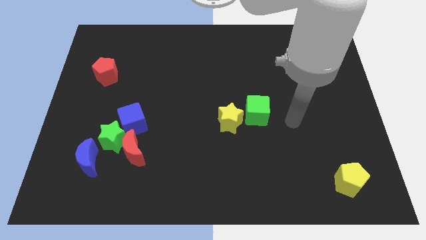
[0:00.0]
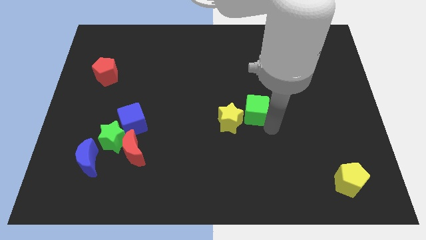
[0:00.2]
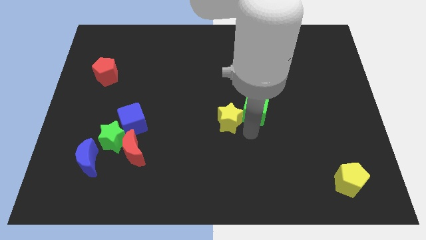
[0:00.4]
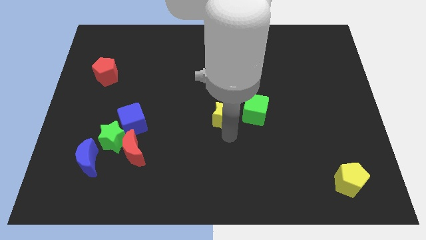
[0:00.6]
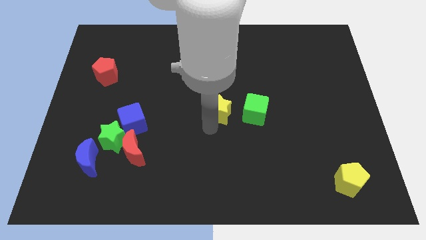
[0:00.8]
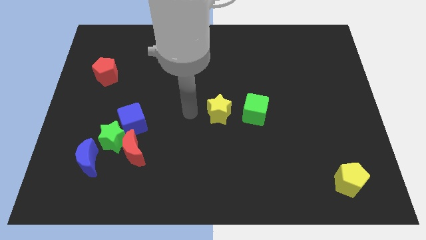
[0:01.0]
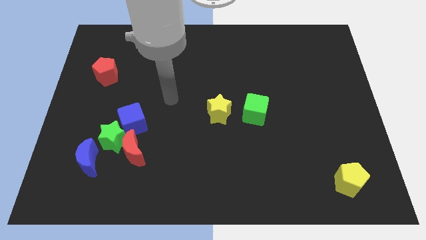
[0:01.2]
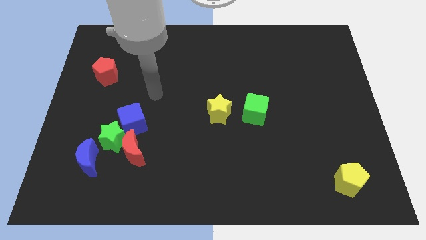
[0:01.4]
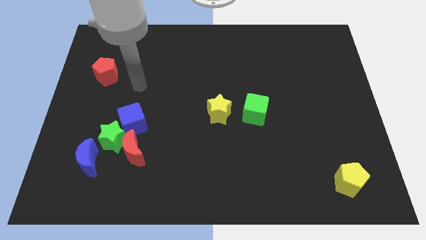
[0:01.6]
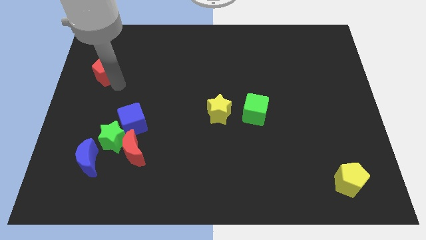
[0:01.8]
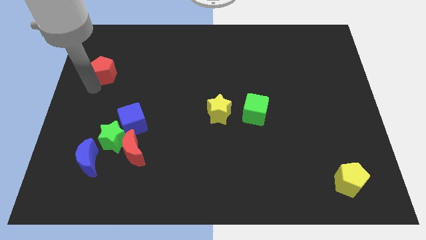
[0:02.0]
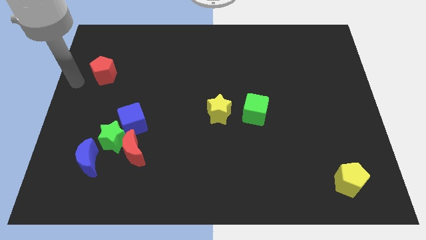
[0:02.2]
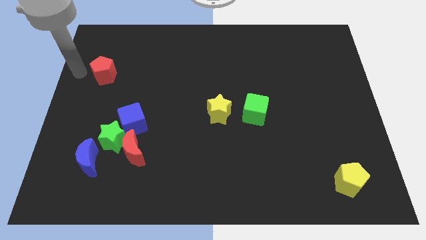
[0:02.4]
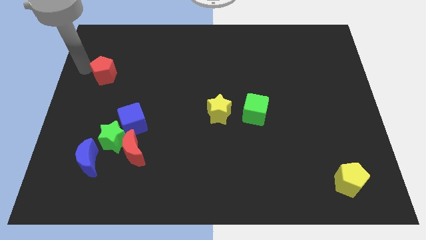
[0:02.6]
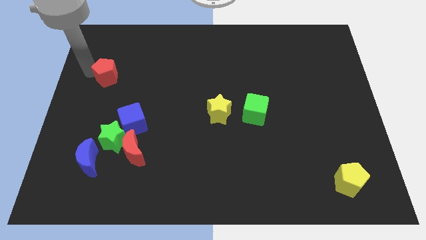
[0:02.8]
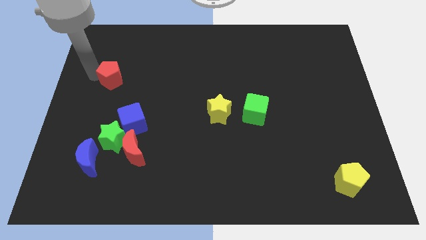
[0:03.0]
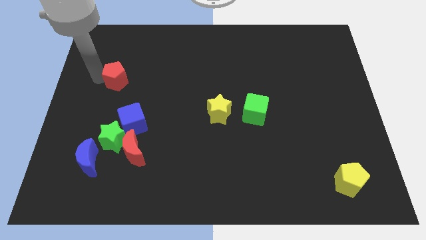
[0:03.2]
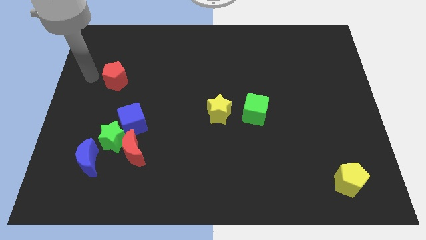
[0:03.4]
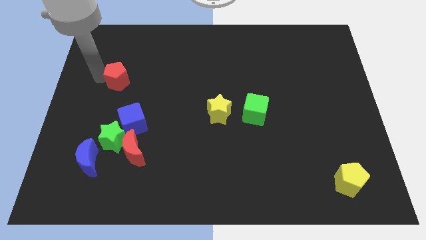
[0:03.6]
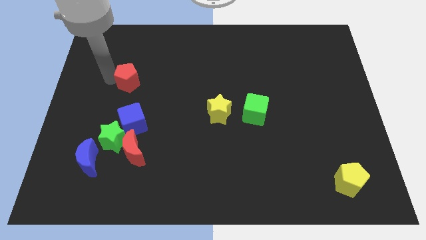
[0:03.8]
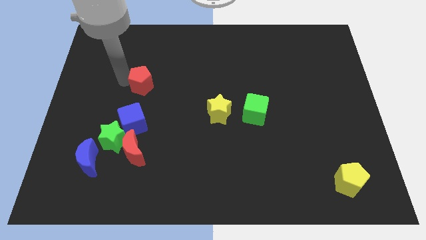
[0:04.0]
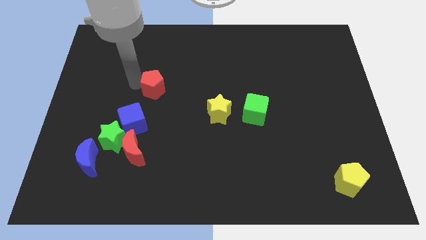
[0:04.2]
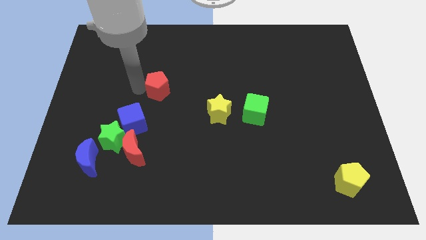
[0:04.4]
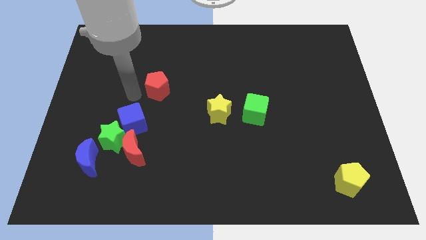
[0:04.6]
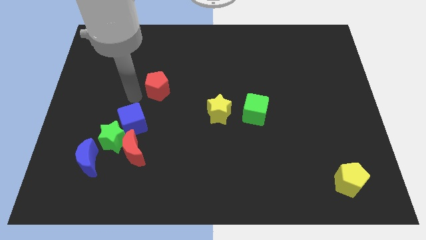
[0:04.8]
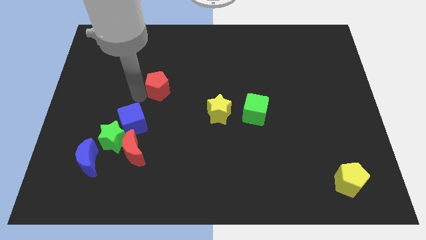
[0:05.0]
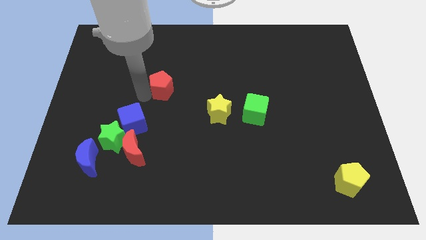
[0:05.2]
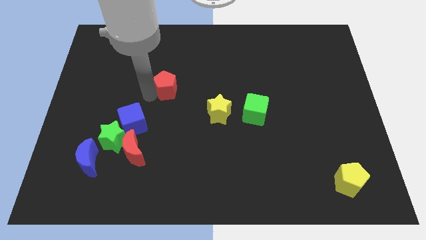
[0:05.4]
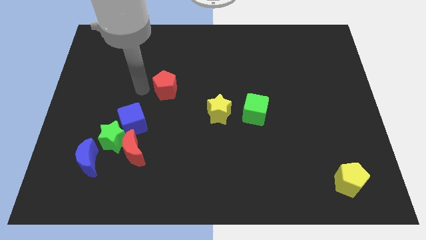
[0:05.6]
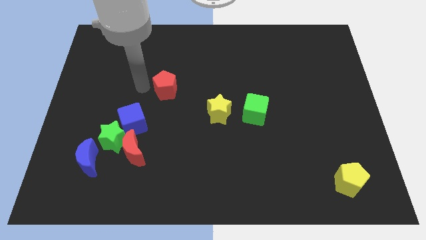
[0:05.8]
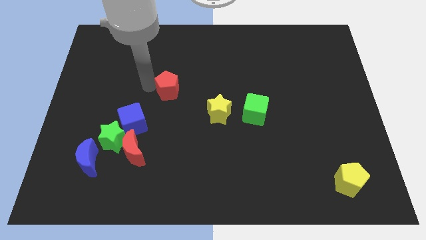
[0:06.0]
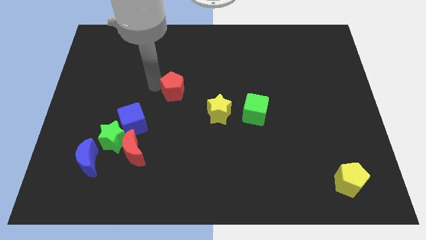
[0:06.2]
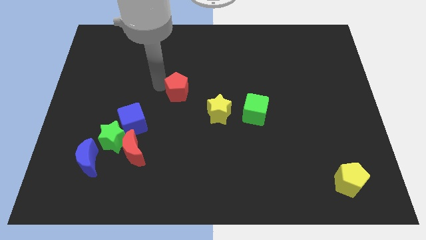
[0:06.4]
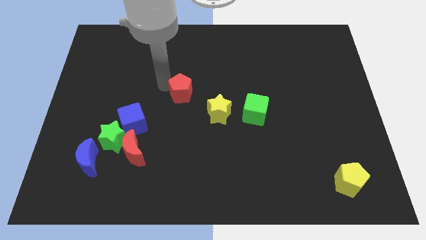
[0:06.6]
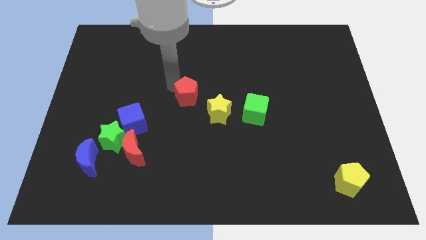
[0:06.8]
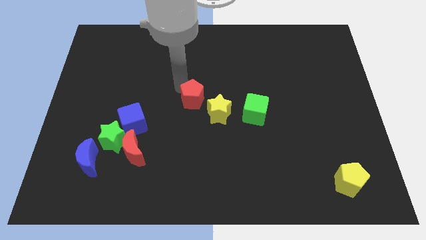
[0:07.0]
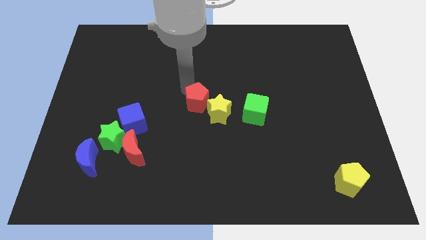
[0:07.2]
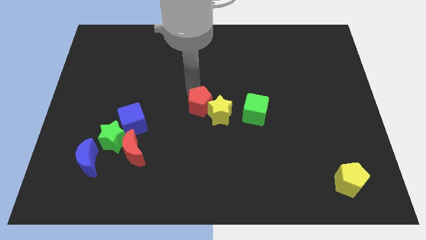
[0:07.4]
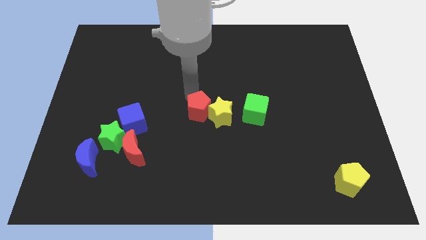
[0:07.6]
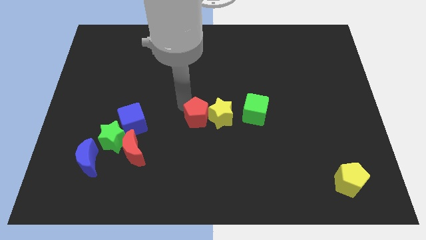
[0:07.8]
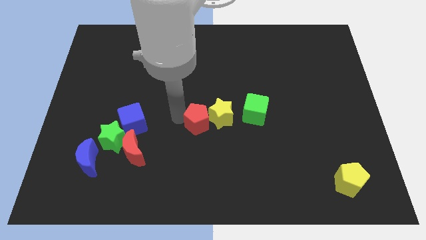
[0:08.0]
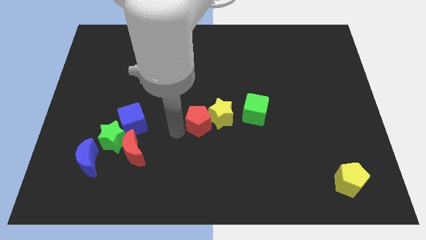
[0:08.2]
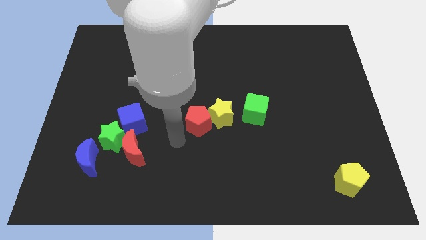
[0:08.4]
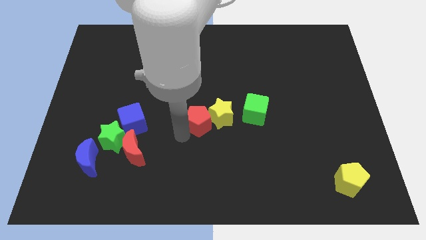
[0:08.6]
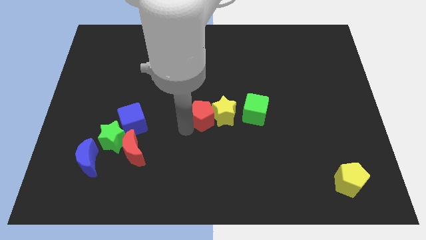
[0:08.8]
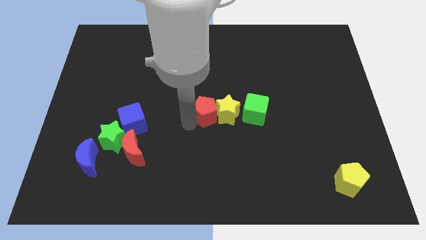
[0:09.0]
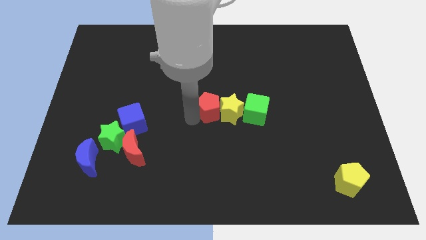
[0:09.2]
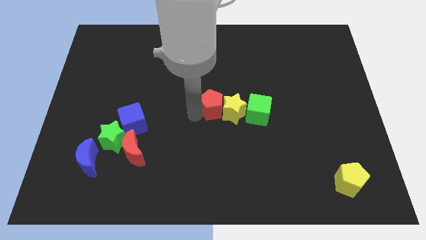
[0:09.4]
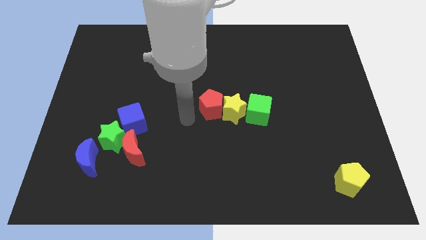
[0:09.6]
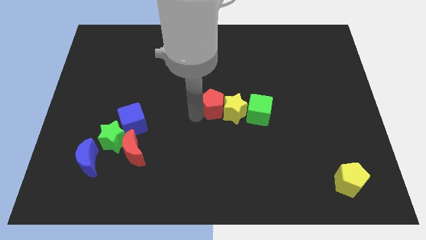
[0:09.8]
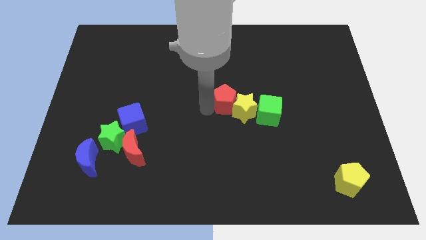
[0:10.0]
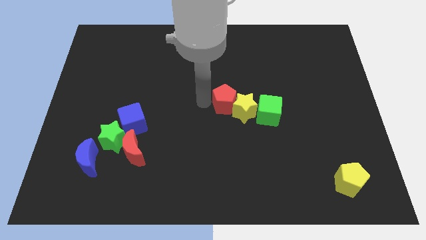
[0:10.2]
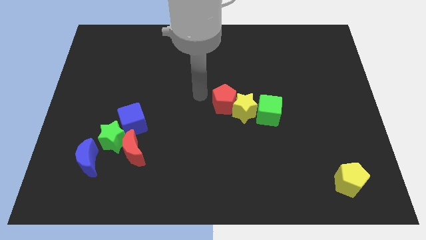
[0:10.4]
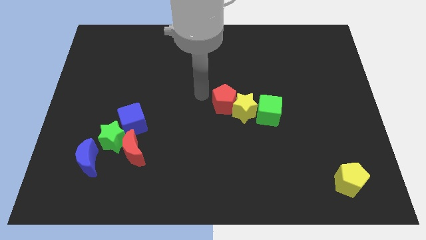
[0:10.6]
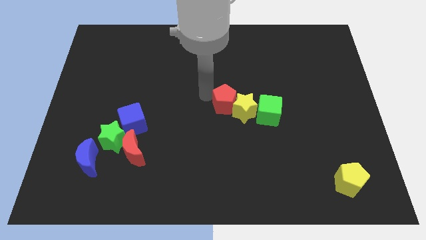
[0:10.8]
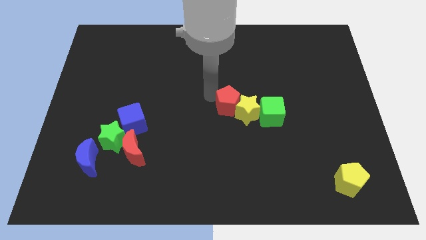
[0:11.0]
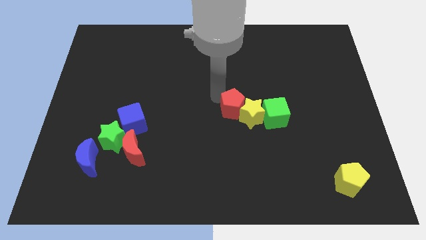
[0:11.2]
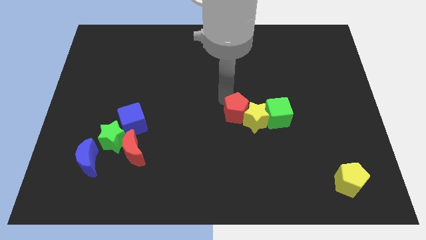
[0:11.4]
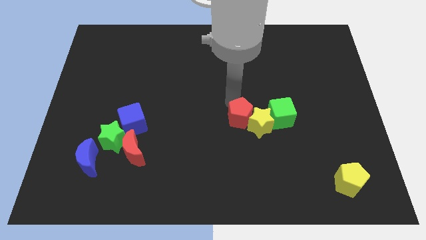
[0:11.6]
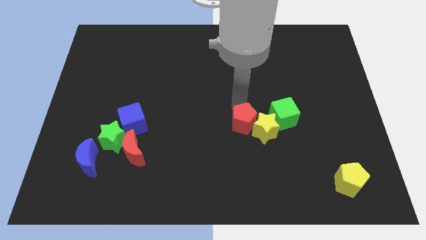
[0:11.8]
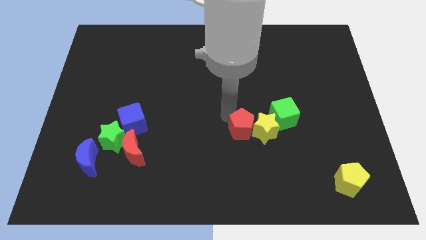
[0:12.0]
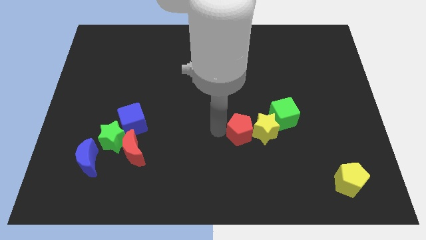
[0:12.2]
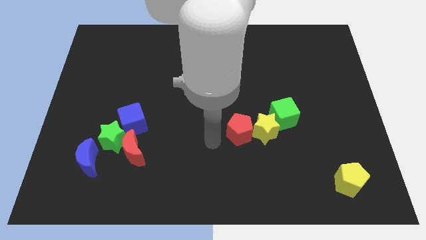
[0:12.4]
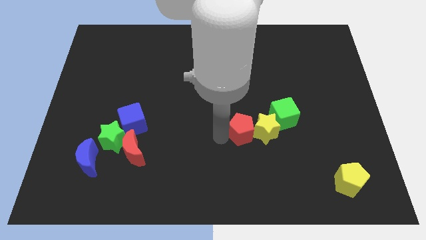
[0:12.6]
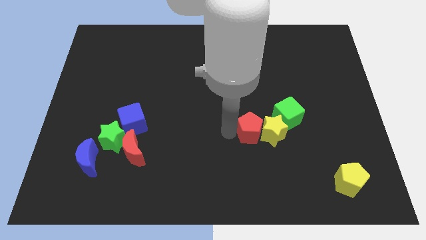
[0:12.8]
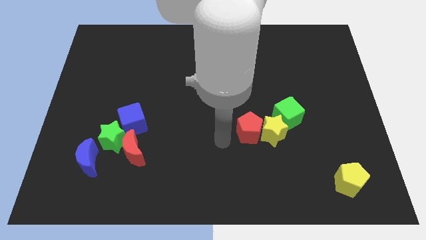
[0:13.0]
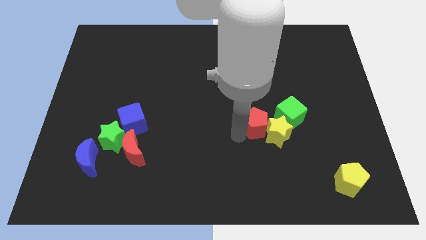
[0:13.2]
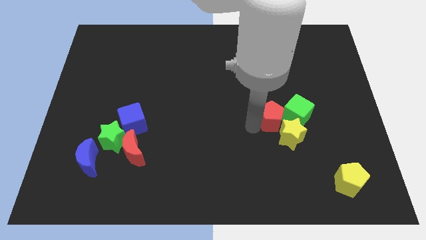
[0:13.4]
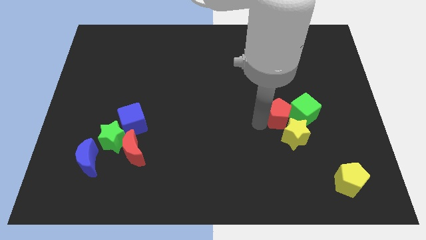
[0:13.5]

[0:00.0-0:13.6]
slide the red pentagon to the green cube
